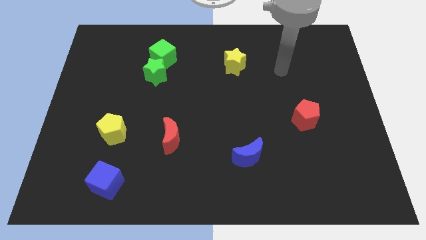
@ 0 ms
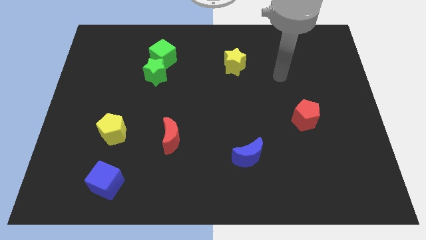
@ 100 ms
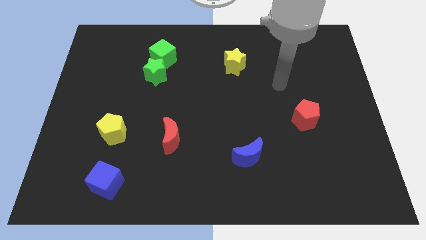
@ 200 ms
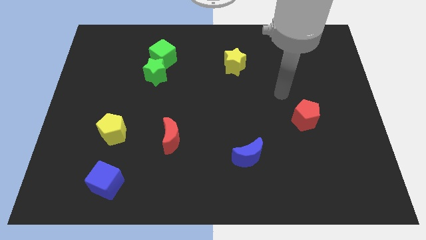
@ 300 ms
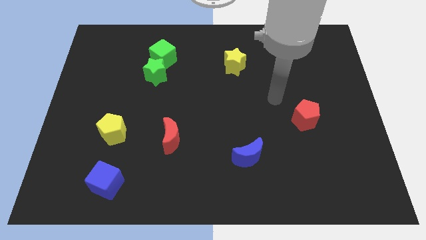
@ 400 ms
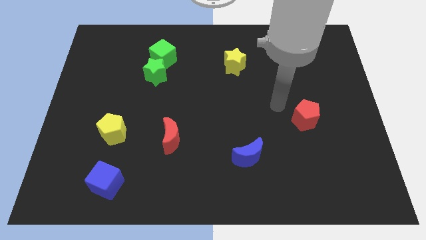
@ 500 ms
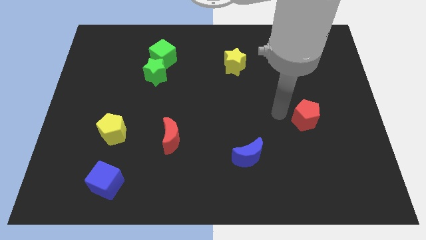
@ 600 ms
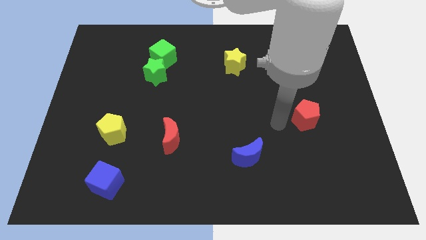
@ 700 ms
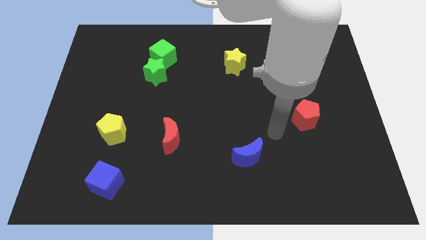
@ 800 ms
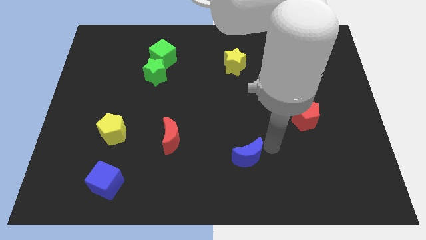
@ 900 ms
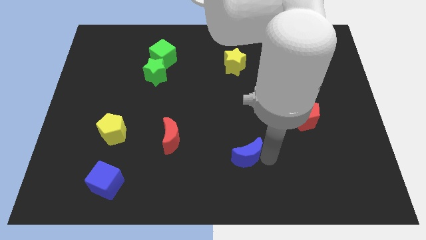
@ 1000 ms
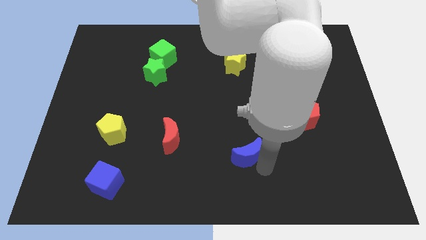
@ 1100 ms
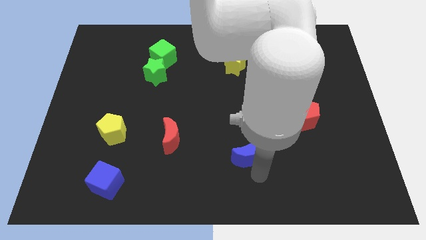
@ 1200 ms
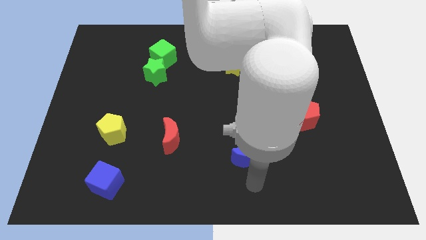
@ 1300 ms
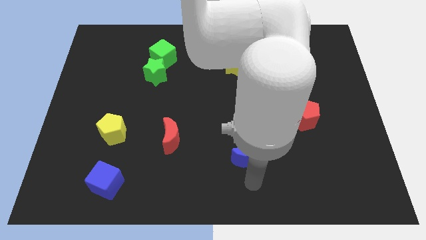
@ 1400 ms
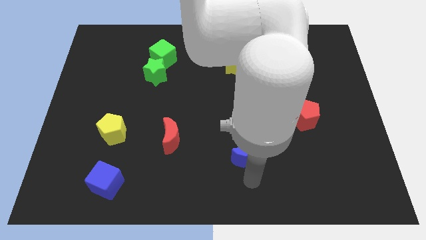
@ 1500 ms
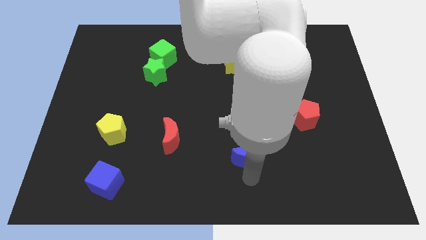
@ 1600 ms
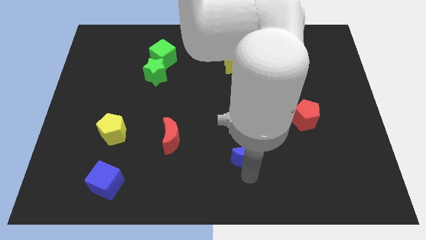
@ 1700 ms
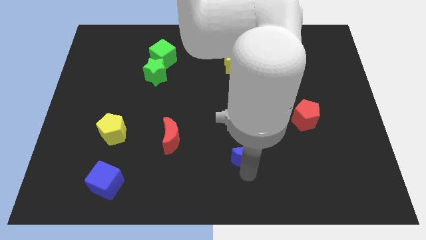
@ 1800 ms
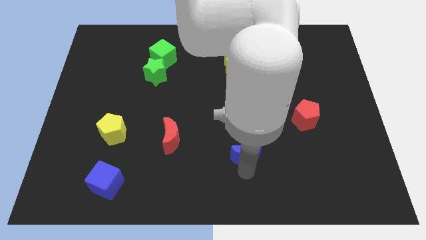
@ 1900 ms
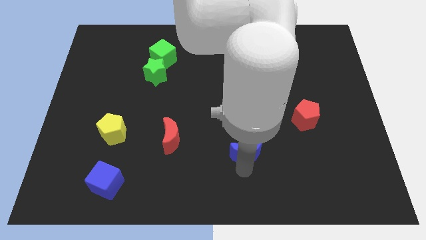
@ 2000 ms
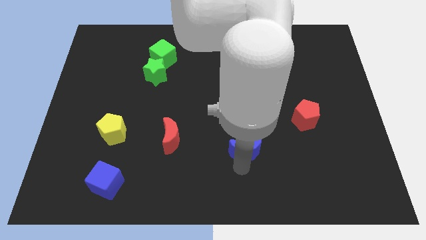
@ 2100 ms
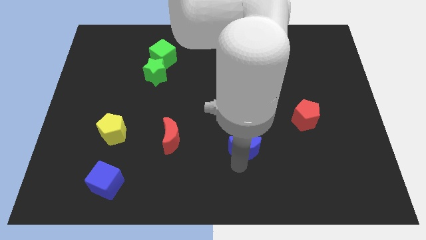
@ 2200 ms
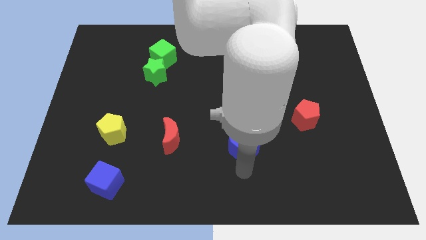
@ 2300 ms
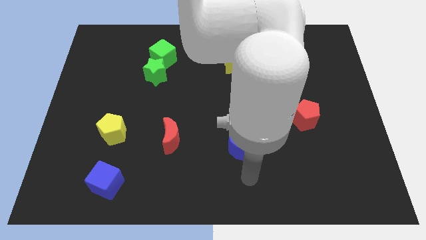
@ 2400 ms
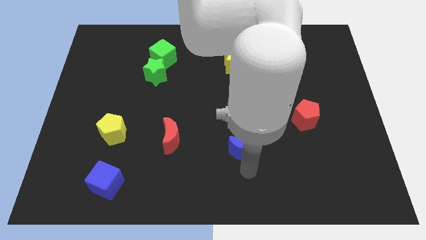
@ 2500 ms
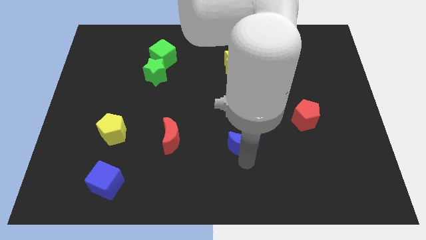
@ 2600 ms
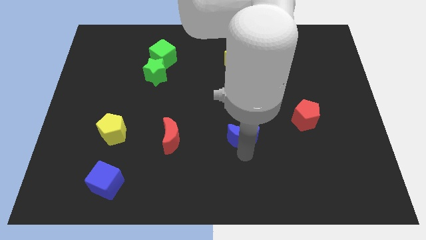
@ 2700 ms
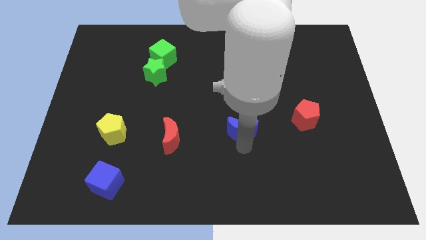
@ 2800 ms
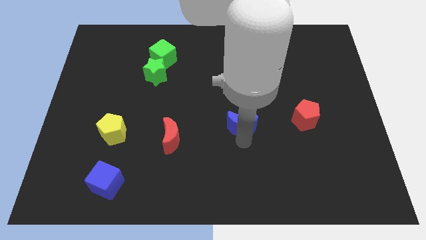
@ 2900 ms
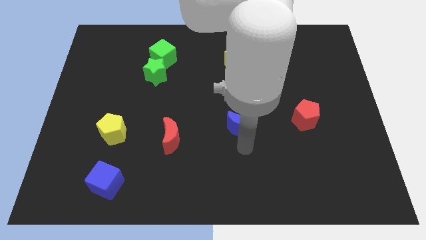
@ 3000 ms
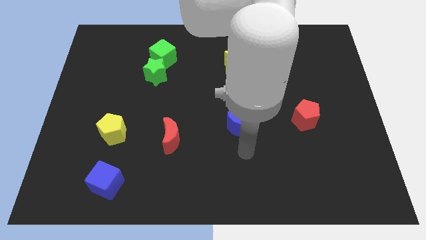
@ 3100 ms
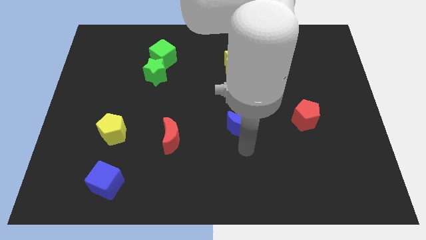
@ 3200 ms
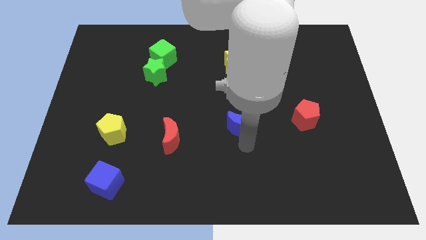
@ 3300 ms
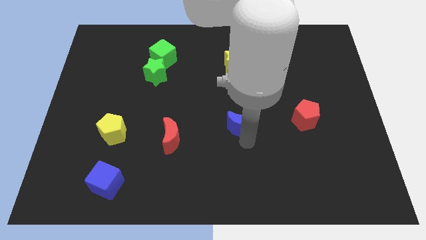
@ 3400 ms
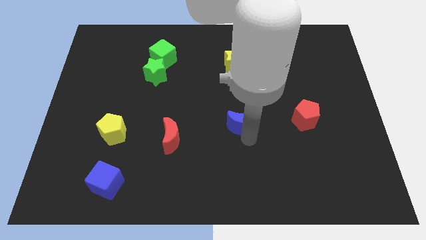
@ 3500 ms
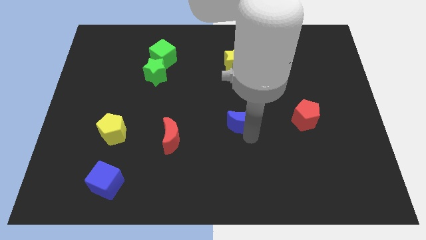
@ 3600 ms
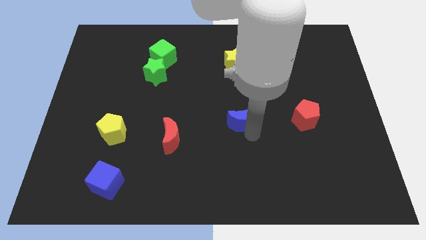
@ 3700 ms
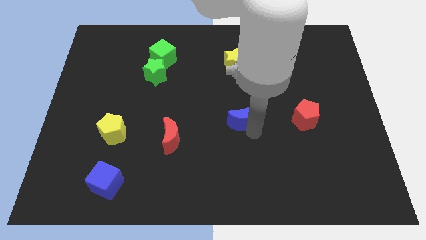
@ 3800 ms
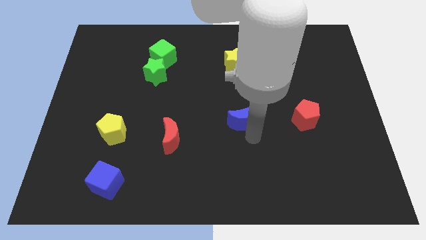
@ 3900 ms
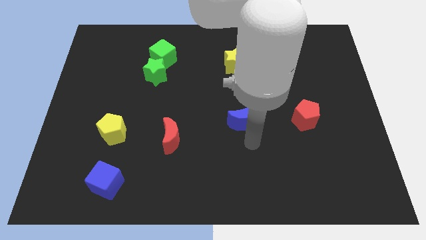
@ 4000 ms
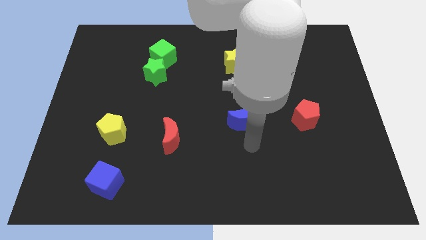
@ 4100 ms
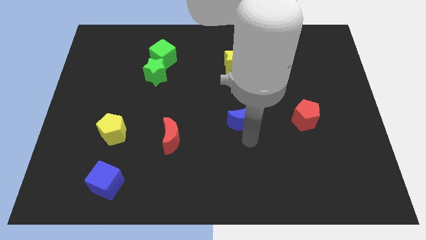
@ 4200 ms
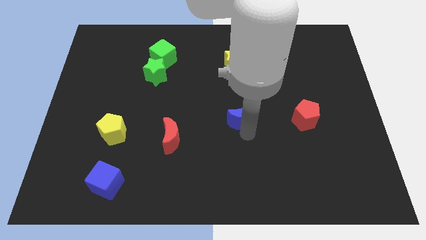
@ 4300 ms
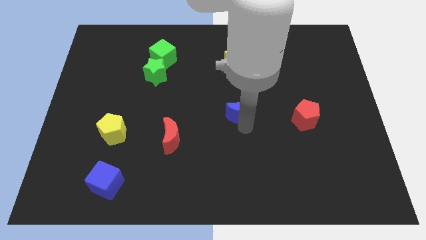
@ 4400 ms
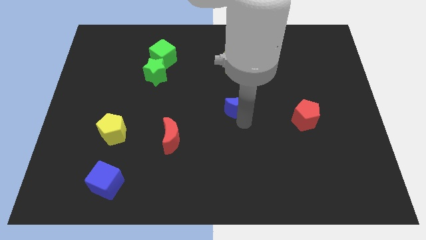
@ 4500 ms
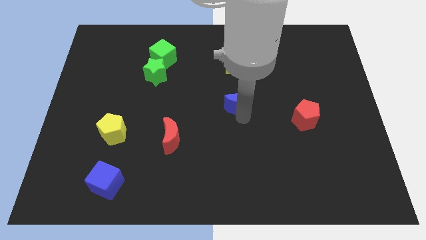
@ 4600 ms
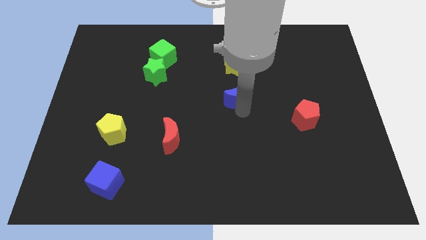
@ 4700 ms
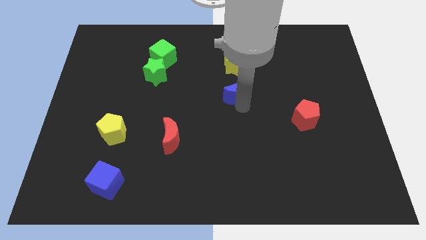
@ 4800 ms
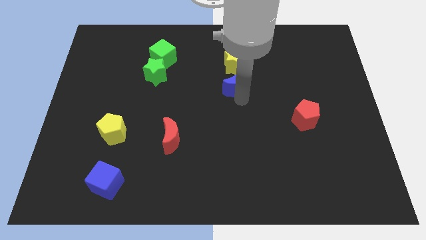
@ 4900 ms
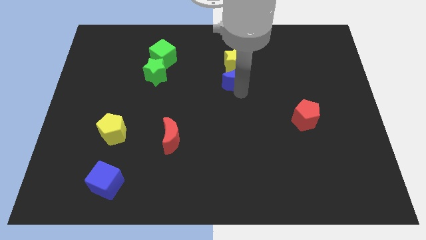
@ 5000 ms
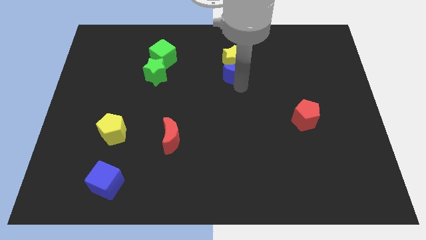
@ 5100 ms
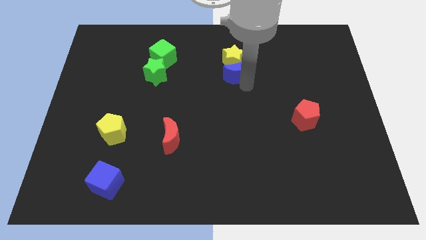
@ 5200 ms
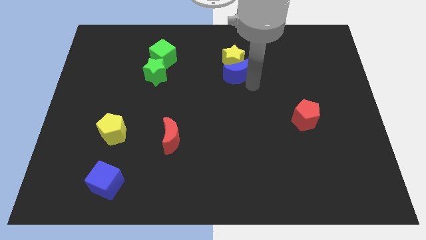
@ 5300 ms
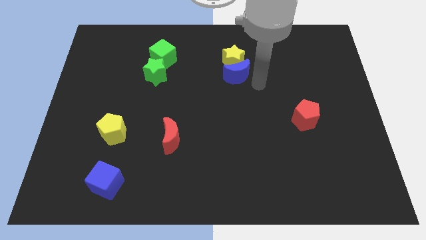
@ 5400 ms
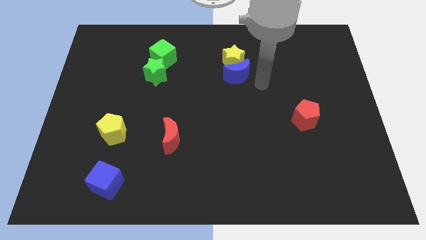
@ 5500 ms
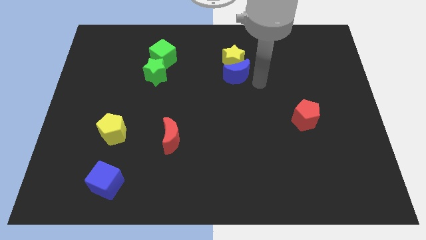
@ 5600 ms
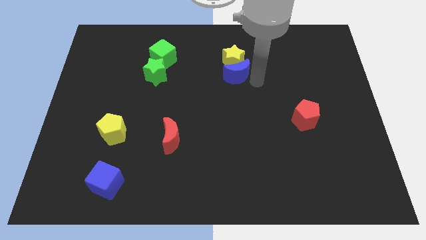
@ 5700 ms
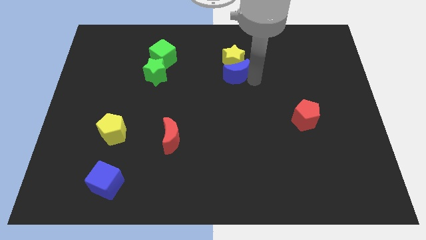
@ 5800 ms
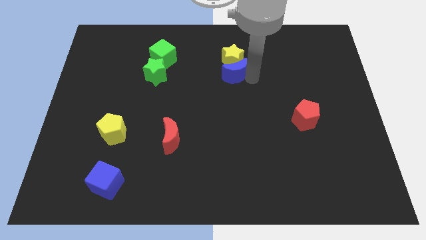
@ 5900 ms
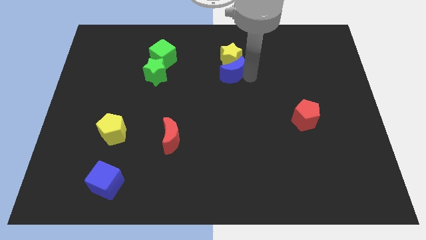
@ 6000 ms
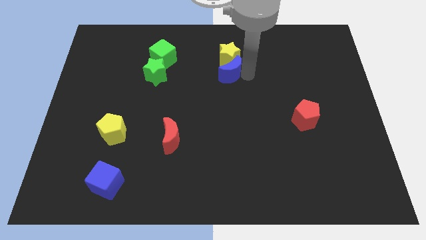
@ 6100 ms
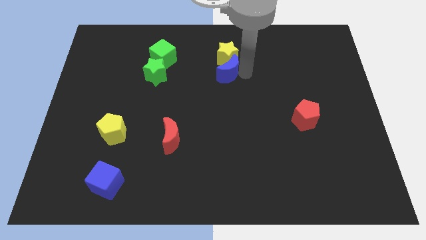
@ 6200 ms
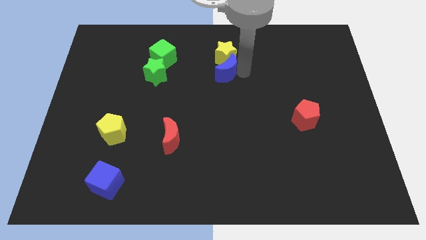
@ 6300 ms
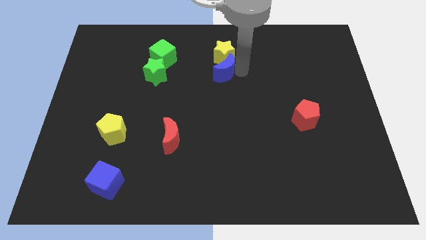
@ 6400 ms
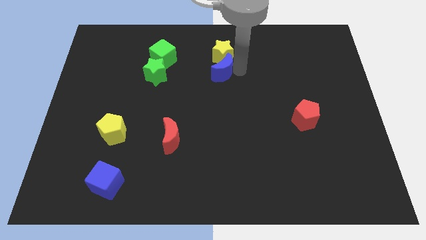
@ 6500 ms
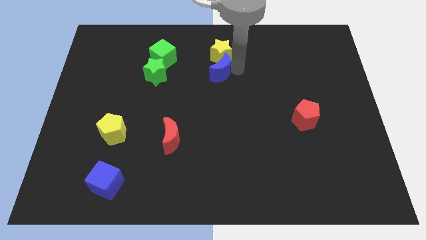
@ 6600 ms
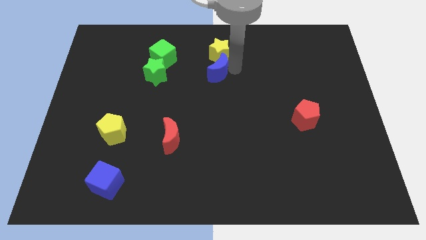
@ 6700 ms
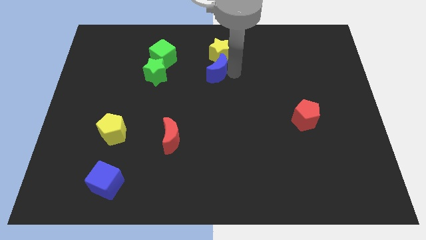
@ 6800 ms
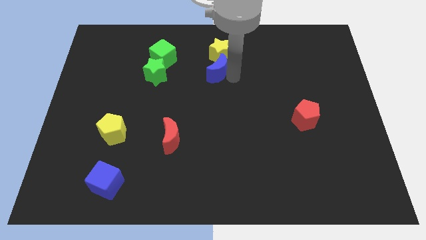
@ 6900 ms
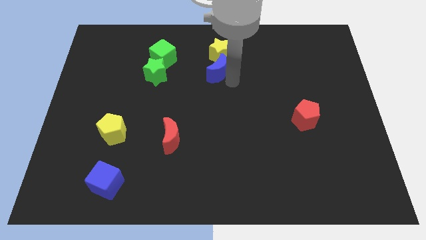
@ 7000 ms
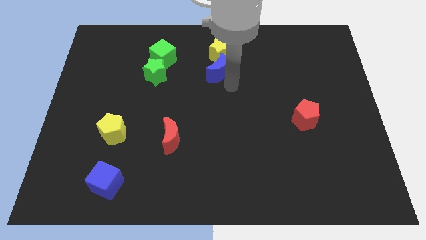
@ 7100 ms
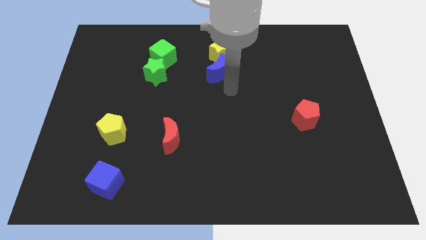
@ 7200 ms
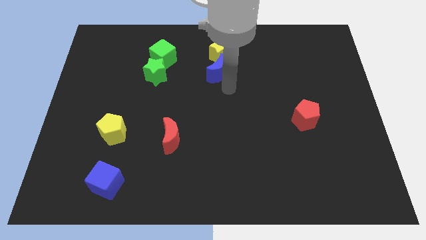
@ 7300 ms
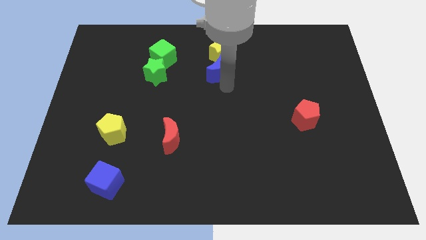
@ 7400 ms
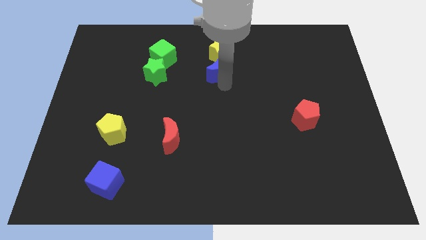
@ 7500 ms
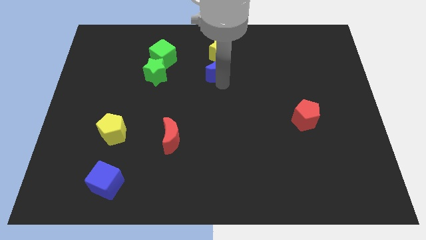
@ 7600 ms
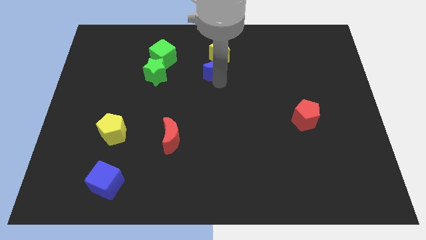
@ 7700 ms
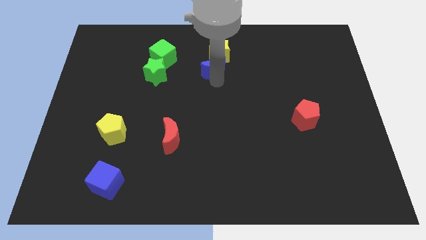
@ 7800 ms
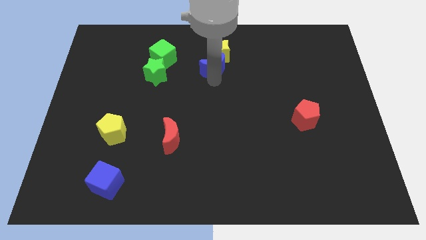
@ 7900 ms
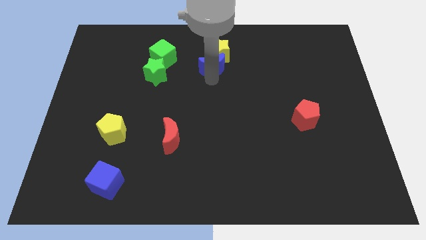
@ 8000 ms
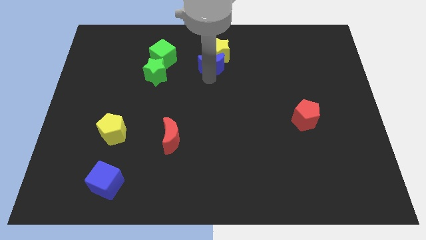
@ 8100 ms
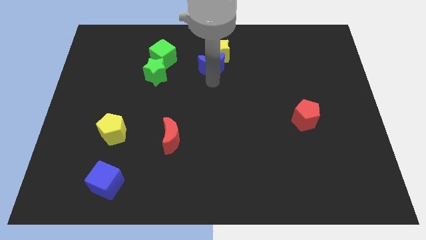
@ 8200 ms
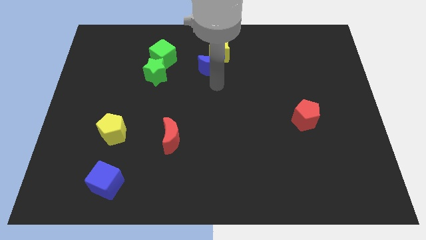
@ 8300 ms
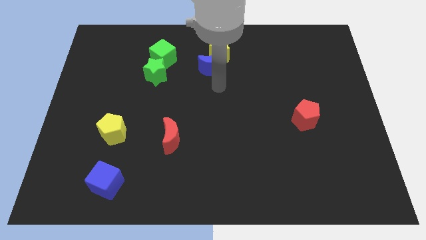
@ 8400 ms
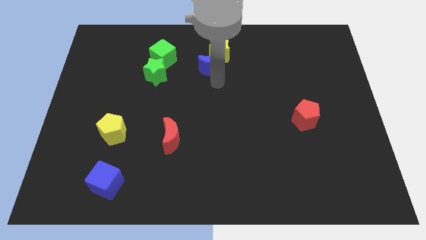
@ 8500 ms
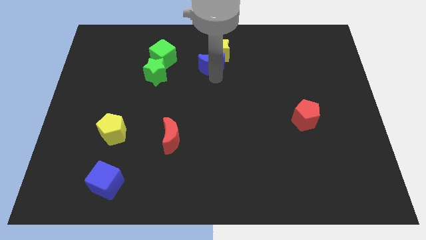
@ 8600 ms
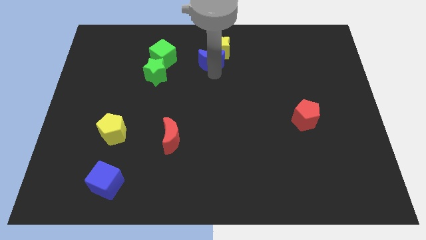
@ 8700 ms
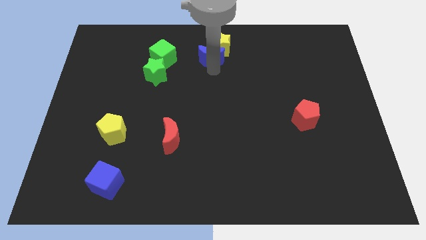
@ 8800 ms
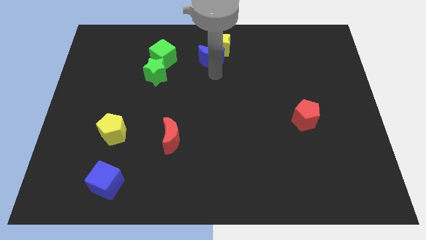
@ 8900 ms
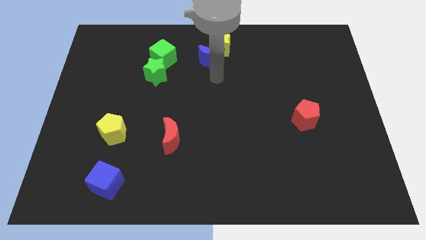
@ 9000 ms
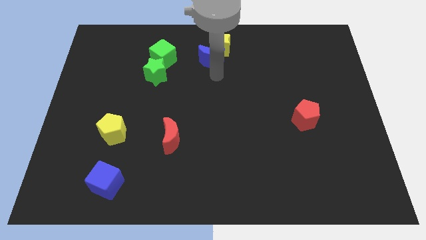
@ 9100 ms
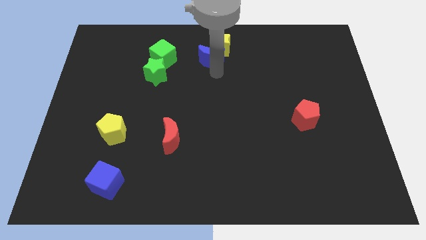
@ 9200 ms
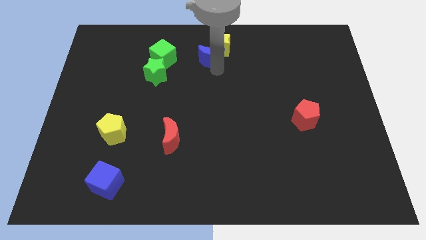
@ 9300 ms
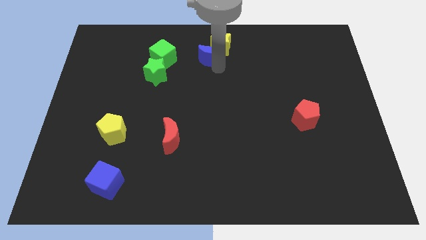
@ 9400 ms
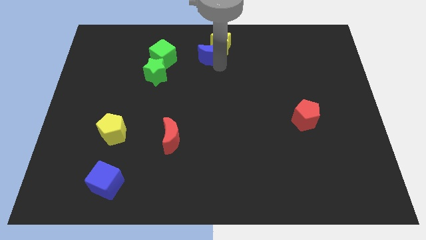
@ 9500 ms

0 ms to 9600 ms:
push the blue moon to the towards your base
